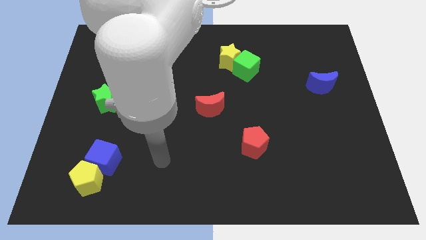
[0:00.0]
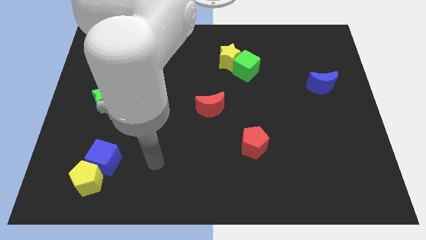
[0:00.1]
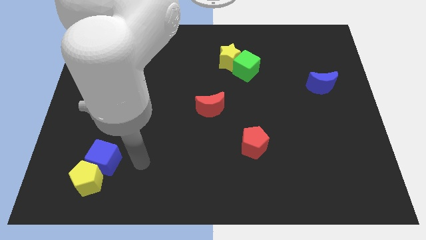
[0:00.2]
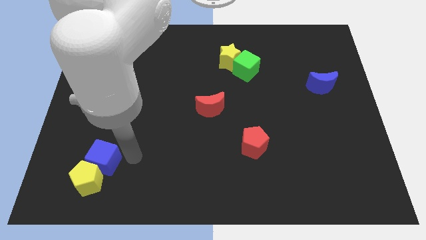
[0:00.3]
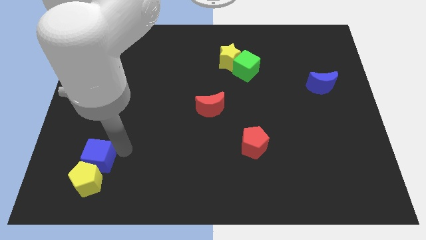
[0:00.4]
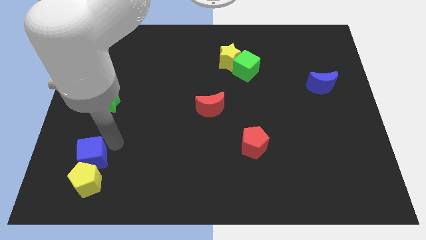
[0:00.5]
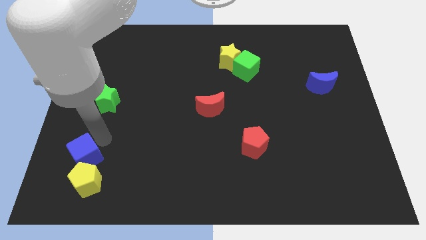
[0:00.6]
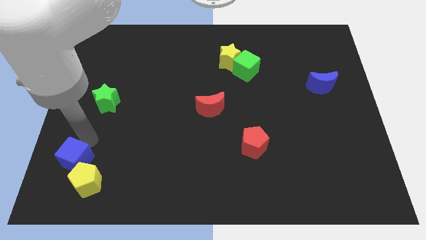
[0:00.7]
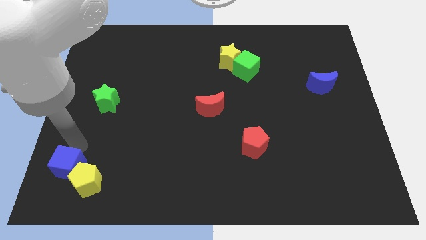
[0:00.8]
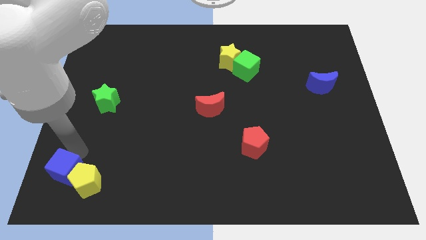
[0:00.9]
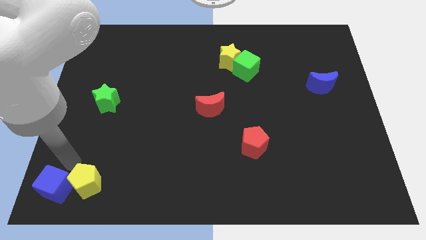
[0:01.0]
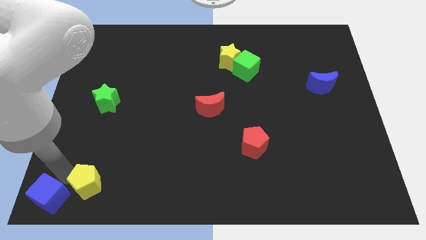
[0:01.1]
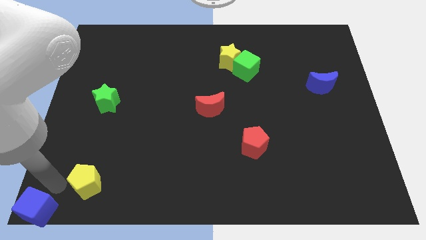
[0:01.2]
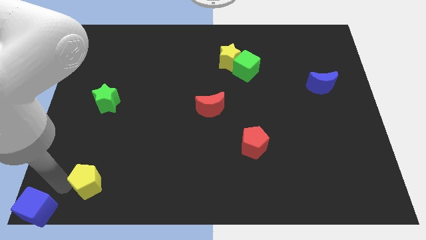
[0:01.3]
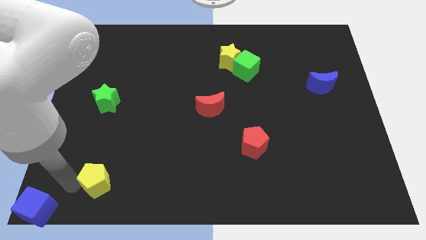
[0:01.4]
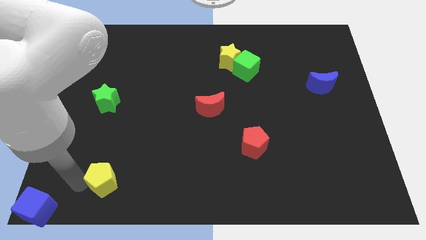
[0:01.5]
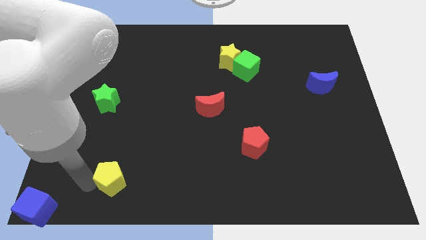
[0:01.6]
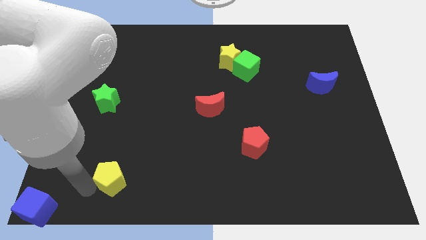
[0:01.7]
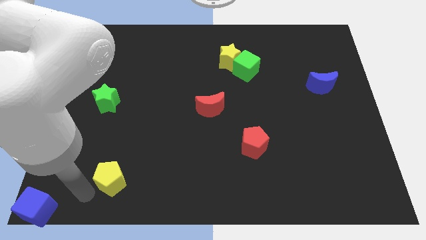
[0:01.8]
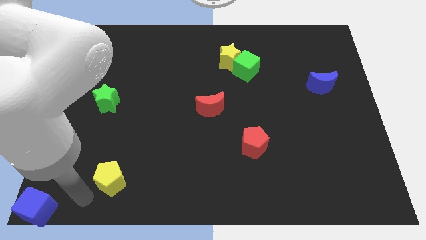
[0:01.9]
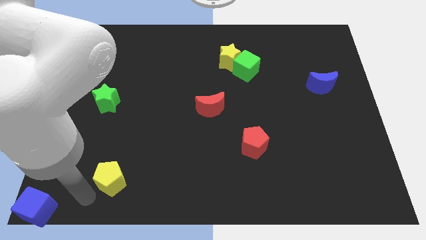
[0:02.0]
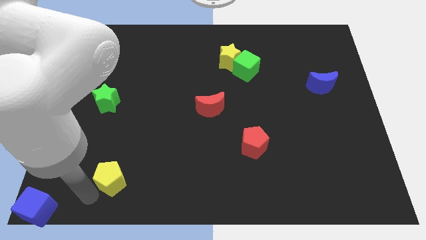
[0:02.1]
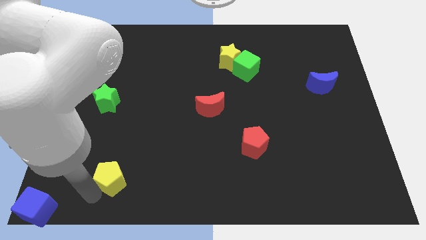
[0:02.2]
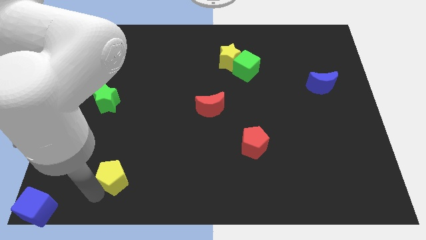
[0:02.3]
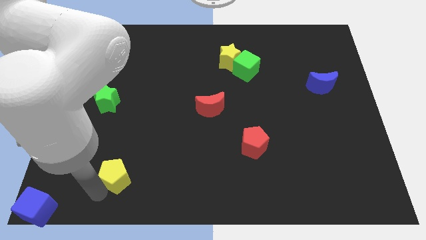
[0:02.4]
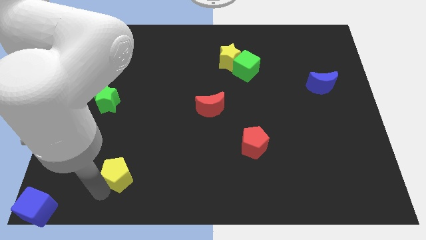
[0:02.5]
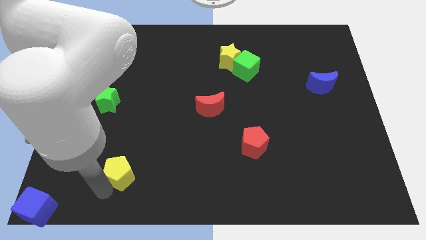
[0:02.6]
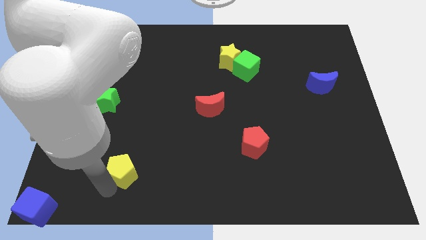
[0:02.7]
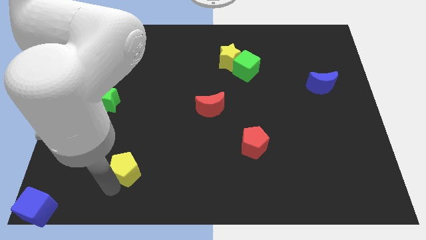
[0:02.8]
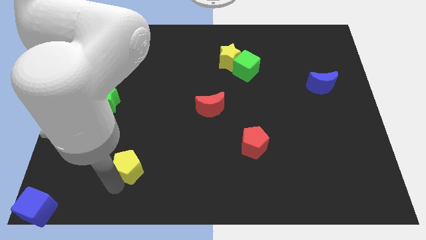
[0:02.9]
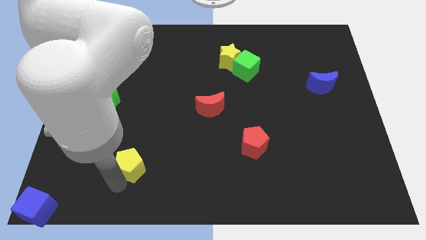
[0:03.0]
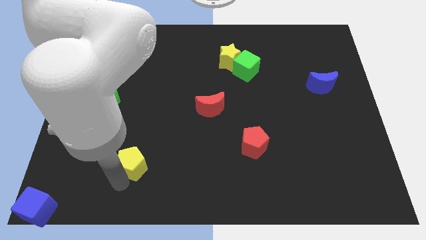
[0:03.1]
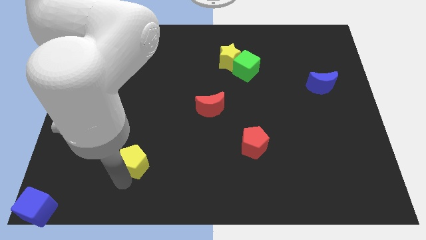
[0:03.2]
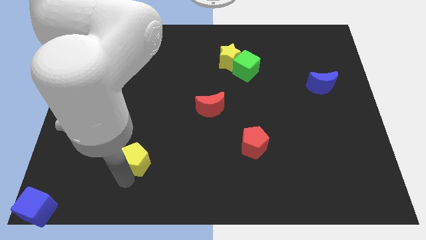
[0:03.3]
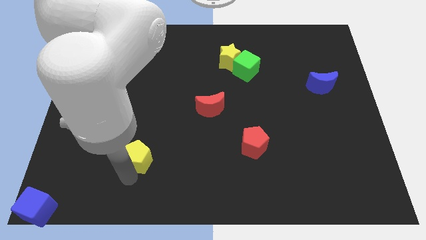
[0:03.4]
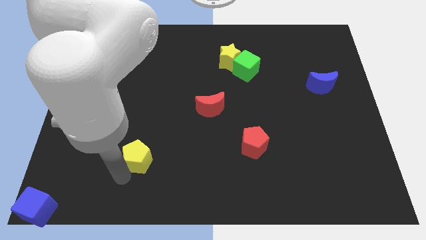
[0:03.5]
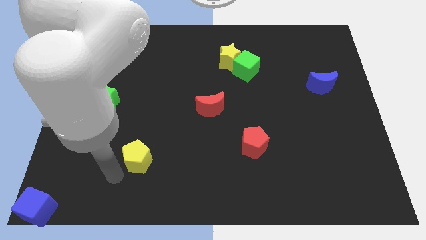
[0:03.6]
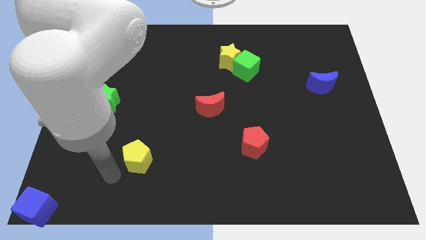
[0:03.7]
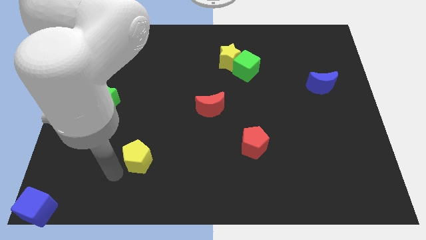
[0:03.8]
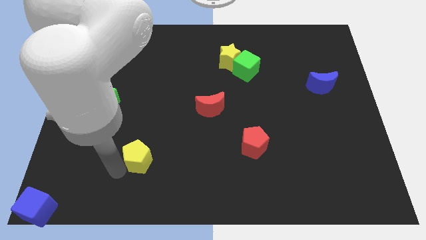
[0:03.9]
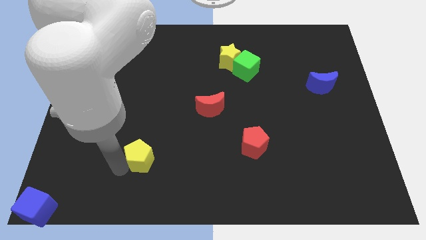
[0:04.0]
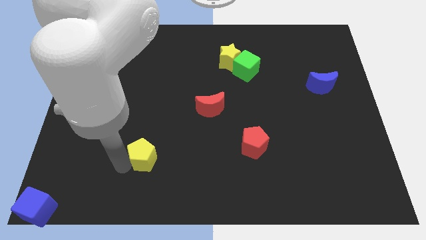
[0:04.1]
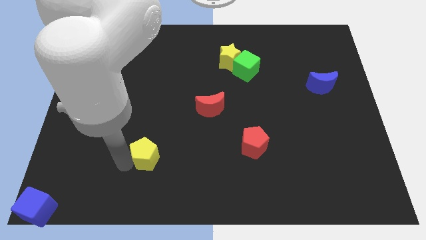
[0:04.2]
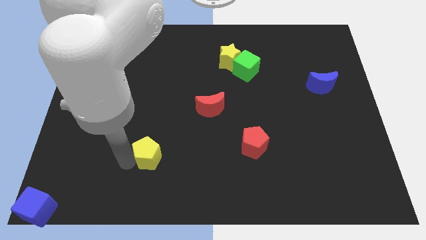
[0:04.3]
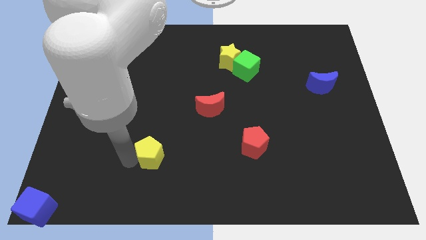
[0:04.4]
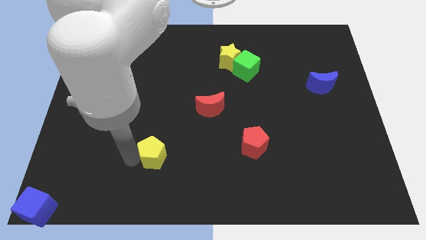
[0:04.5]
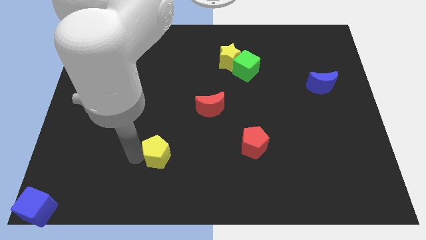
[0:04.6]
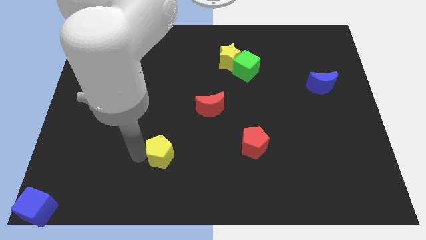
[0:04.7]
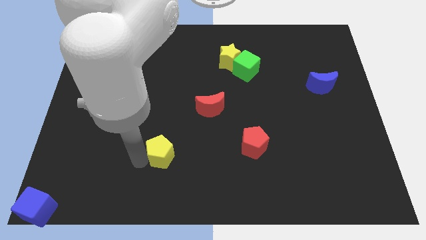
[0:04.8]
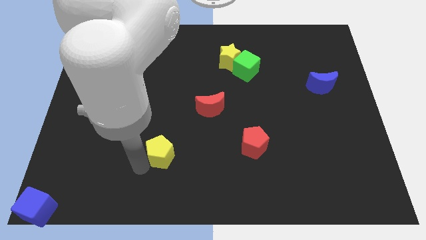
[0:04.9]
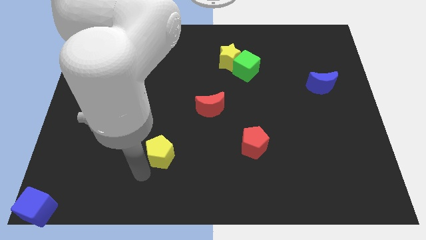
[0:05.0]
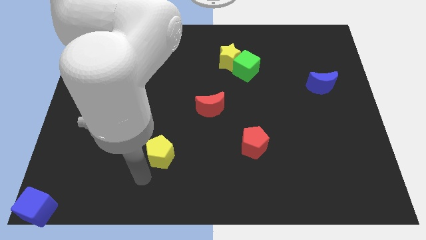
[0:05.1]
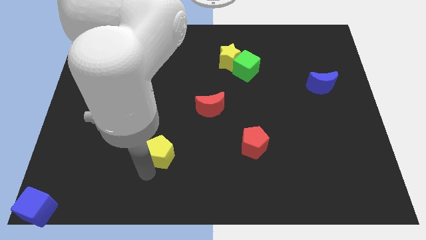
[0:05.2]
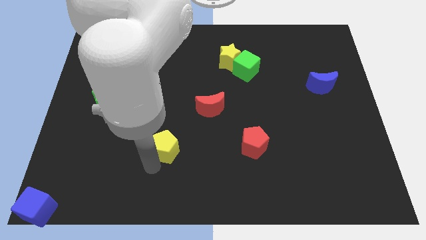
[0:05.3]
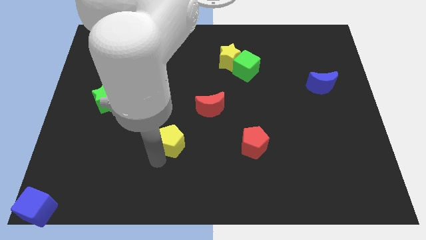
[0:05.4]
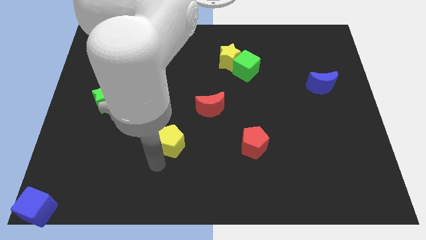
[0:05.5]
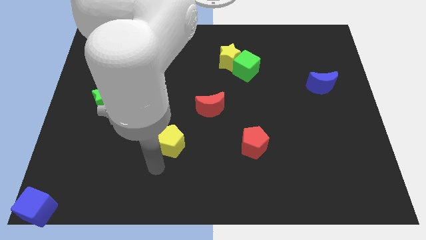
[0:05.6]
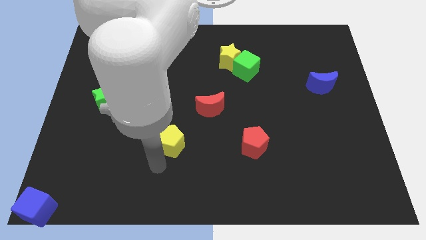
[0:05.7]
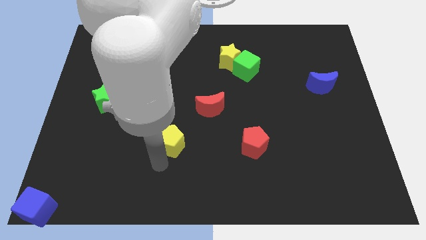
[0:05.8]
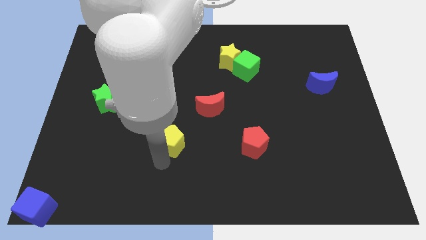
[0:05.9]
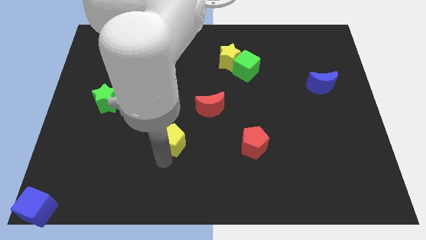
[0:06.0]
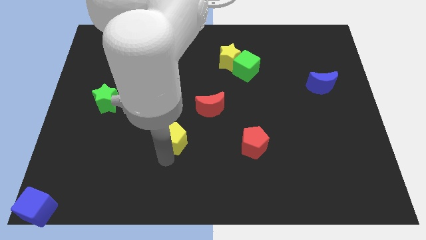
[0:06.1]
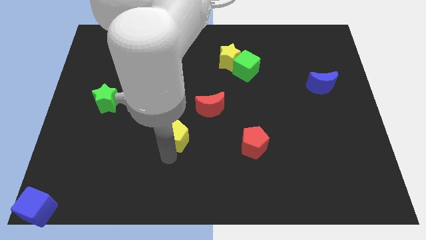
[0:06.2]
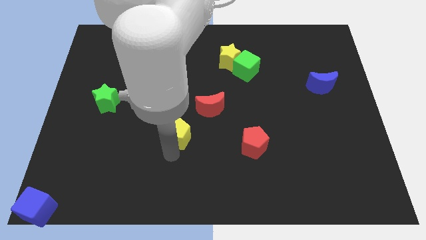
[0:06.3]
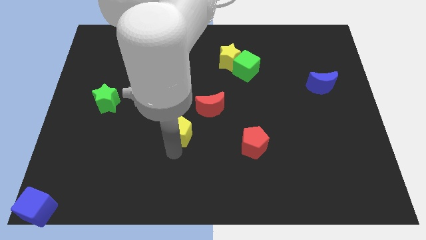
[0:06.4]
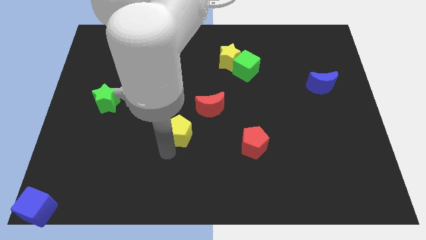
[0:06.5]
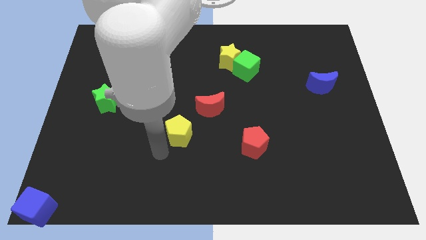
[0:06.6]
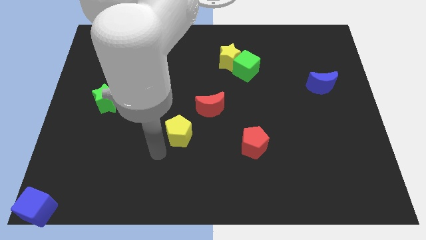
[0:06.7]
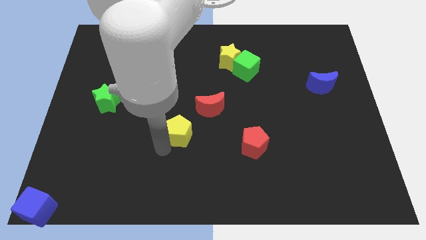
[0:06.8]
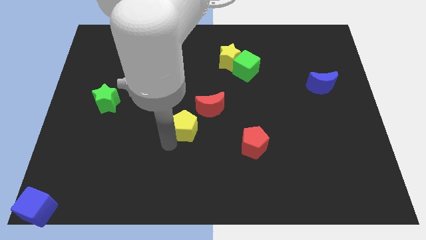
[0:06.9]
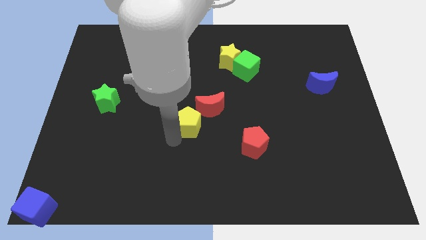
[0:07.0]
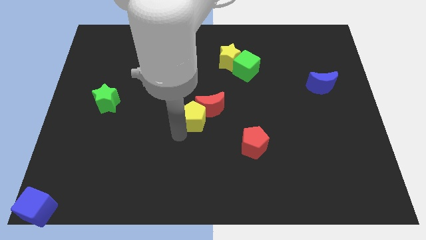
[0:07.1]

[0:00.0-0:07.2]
slide the yellow pentagon close to the red moon

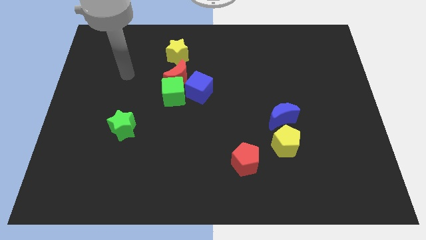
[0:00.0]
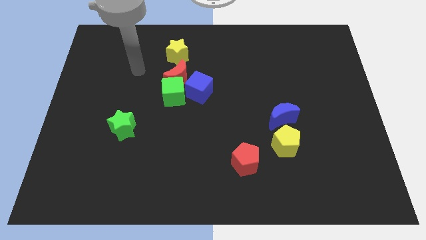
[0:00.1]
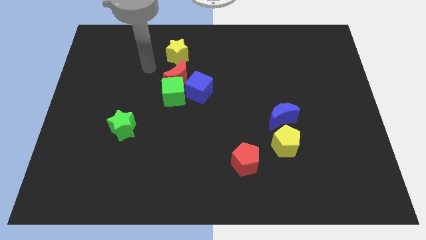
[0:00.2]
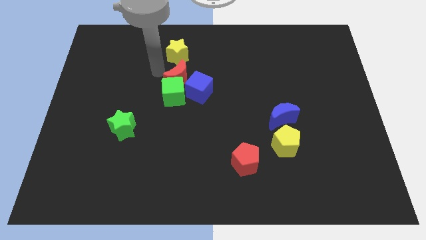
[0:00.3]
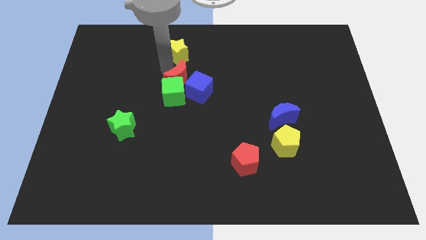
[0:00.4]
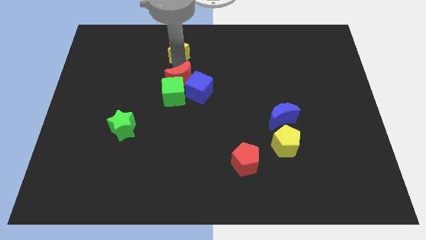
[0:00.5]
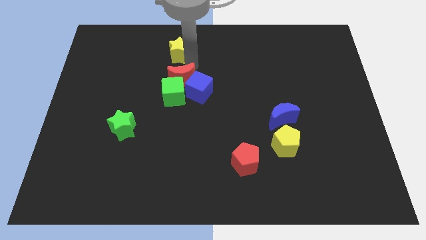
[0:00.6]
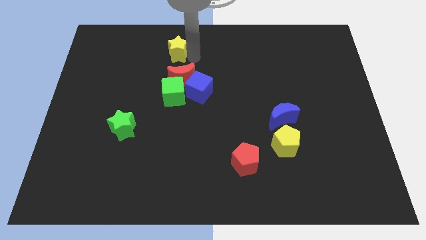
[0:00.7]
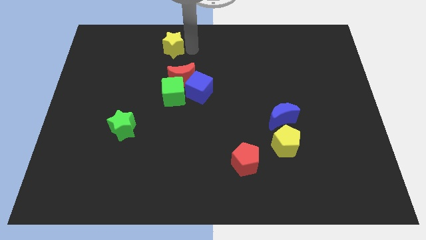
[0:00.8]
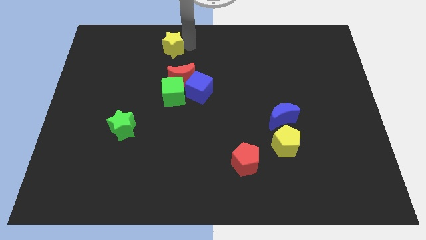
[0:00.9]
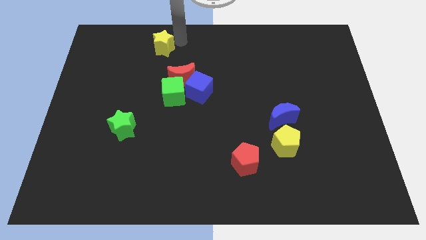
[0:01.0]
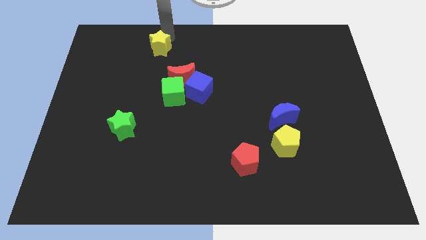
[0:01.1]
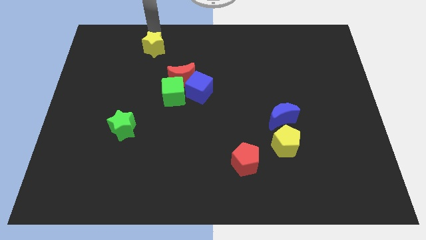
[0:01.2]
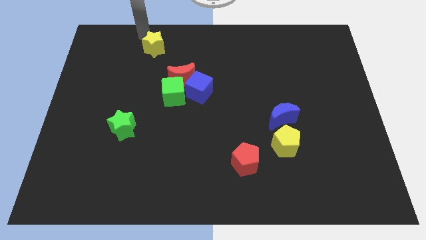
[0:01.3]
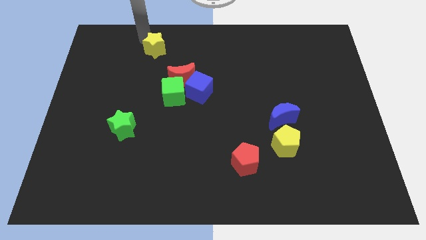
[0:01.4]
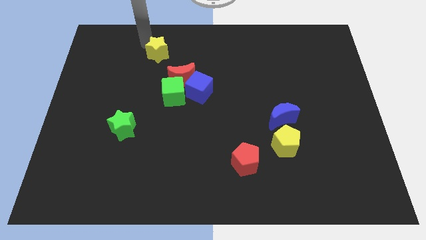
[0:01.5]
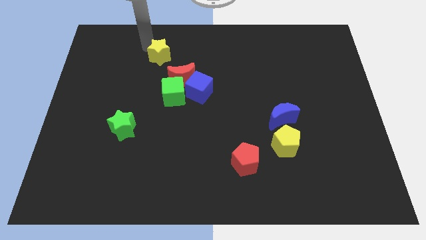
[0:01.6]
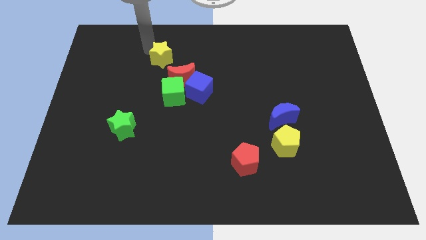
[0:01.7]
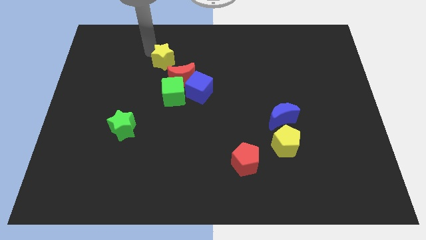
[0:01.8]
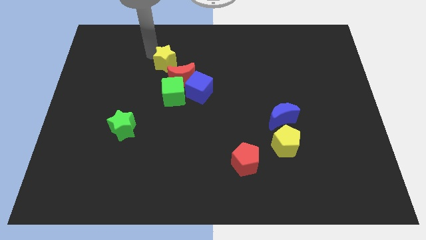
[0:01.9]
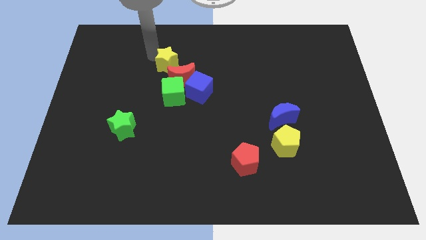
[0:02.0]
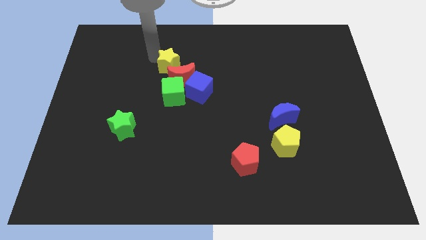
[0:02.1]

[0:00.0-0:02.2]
slide the yellow star towards the red moon
